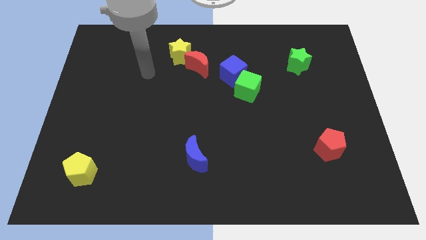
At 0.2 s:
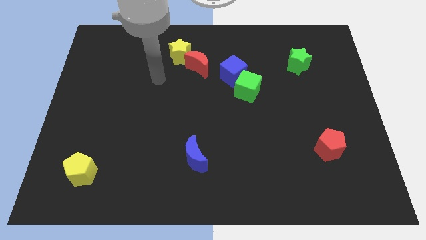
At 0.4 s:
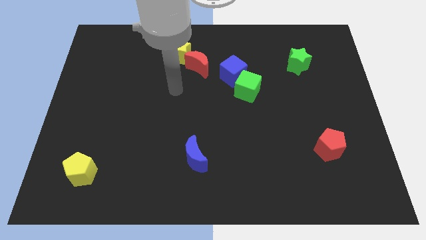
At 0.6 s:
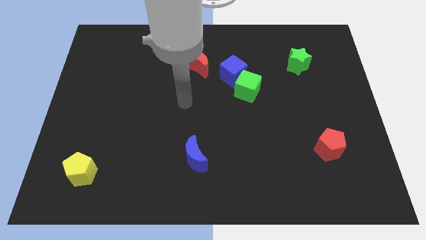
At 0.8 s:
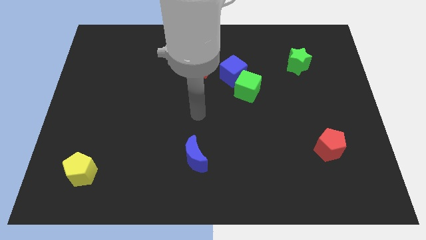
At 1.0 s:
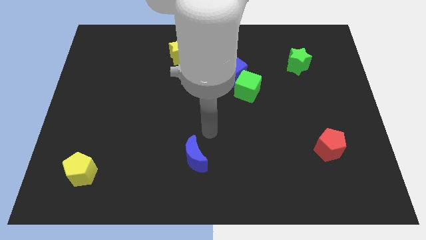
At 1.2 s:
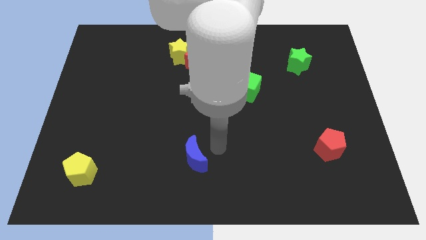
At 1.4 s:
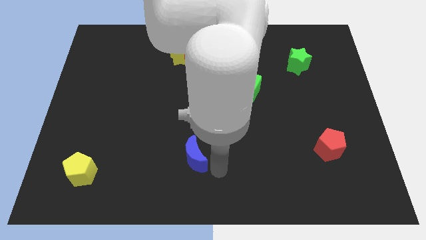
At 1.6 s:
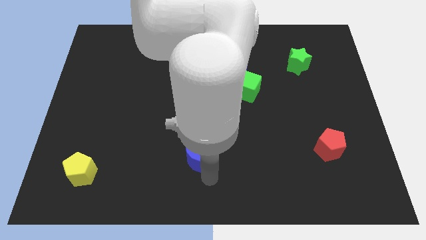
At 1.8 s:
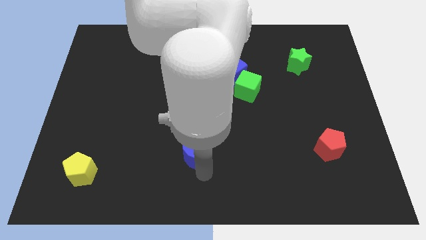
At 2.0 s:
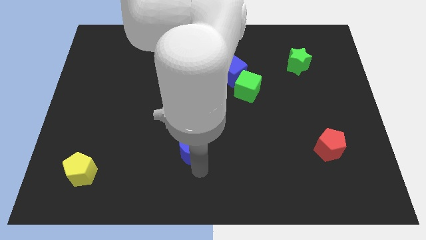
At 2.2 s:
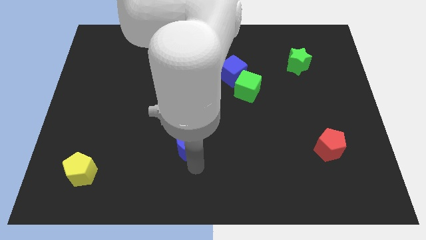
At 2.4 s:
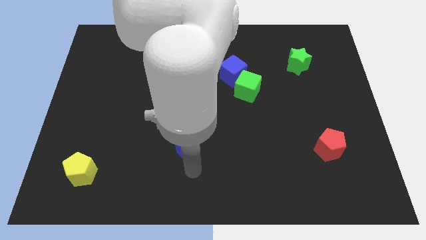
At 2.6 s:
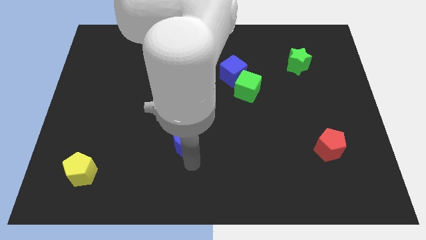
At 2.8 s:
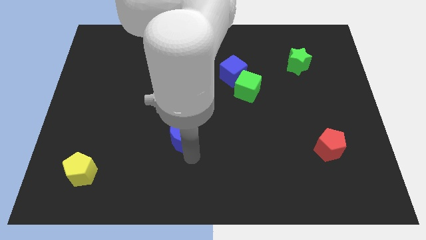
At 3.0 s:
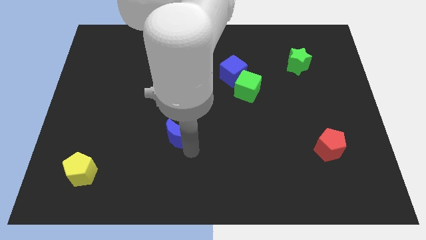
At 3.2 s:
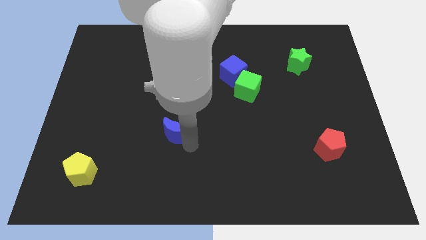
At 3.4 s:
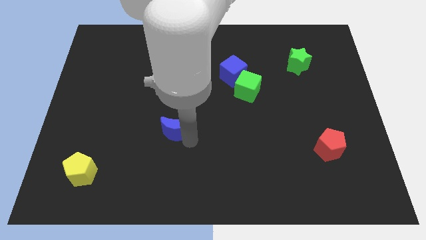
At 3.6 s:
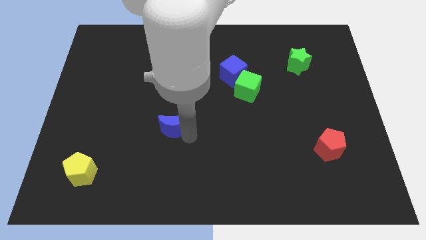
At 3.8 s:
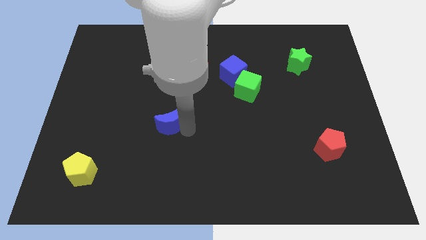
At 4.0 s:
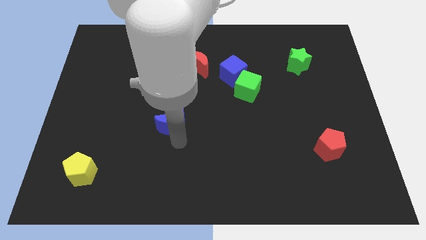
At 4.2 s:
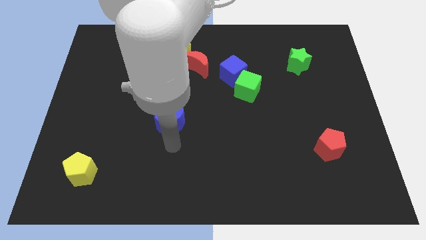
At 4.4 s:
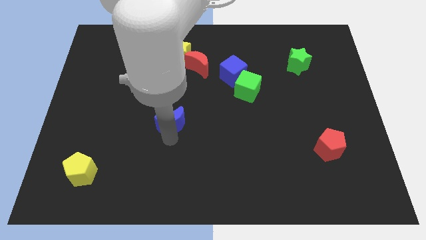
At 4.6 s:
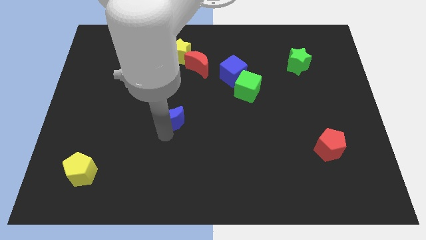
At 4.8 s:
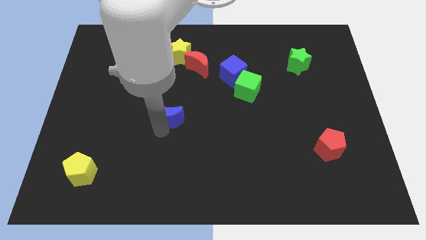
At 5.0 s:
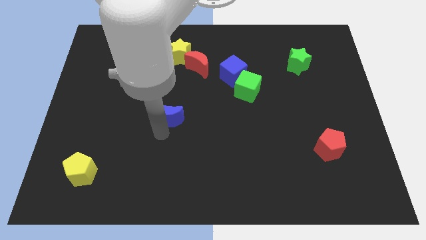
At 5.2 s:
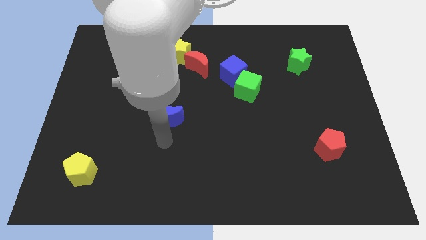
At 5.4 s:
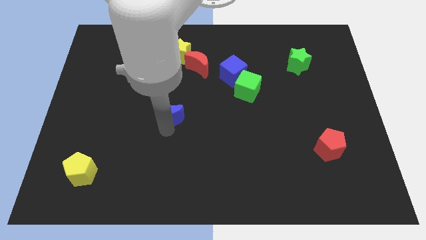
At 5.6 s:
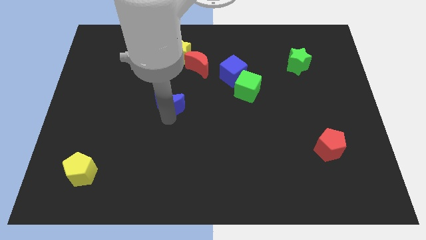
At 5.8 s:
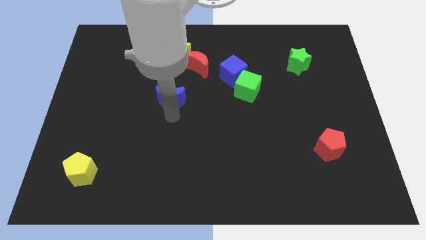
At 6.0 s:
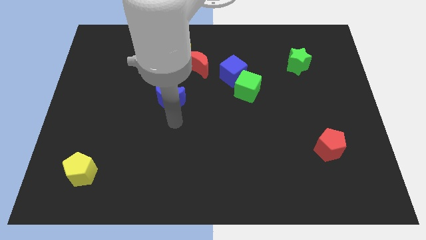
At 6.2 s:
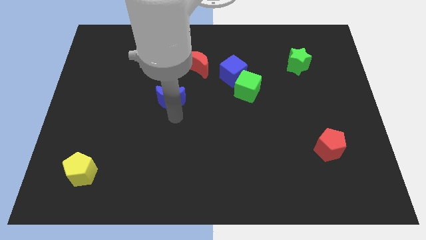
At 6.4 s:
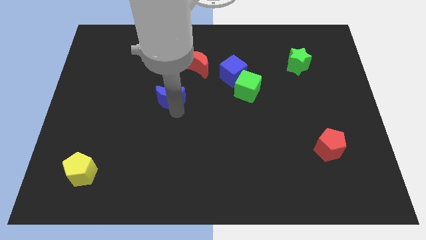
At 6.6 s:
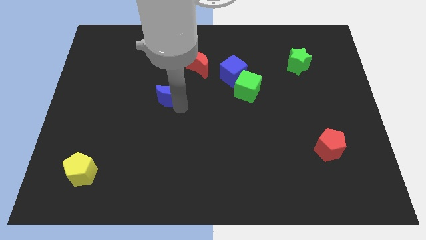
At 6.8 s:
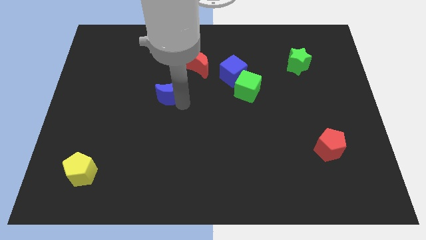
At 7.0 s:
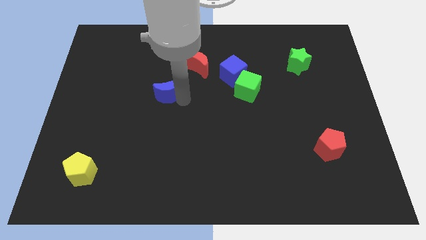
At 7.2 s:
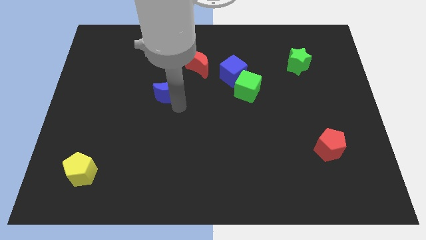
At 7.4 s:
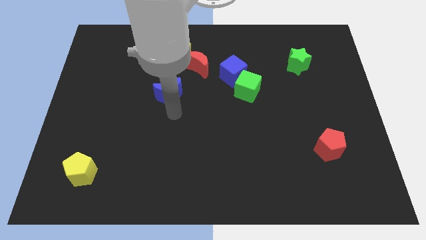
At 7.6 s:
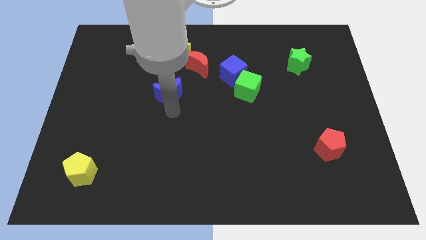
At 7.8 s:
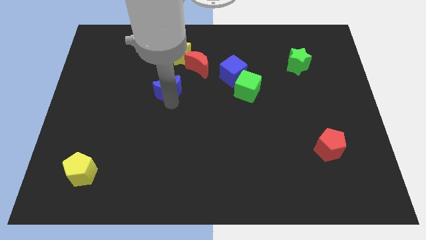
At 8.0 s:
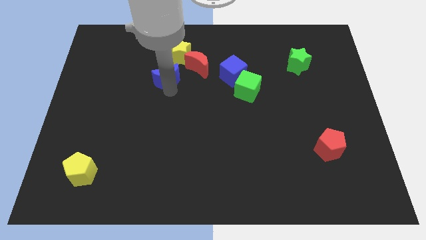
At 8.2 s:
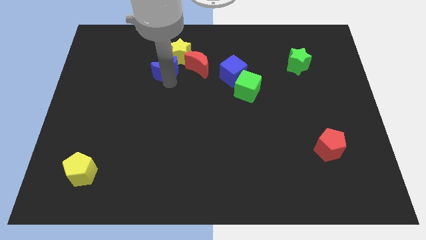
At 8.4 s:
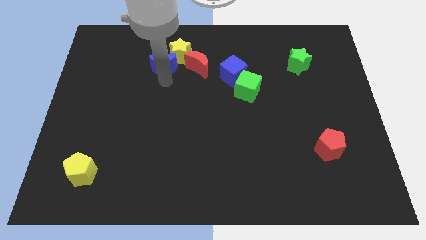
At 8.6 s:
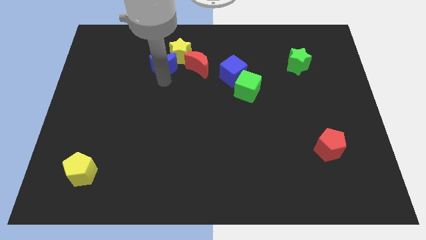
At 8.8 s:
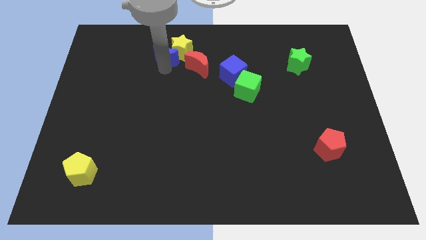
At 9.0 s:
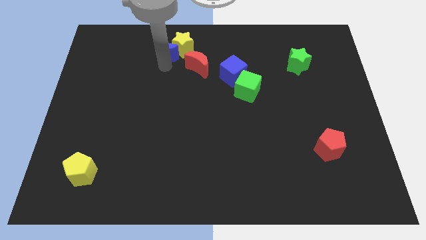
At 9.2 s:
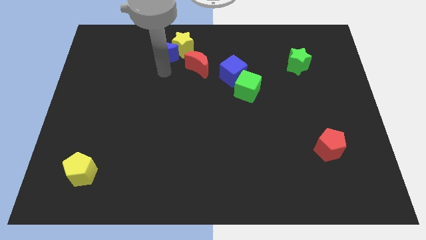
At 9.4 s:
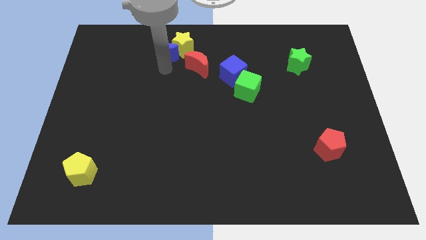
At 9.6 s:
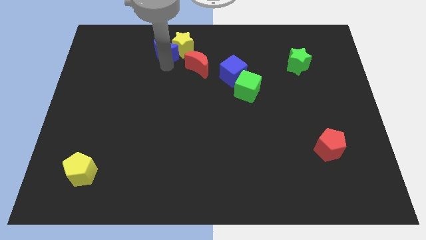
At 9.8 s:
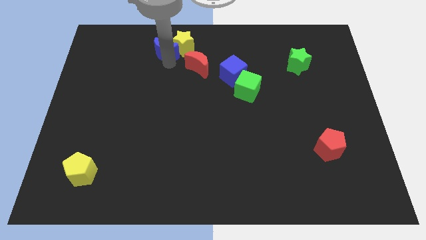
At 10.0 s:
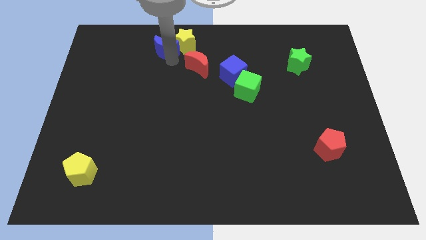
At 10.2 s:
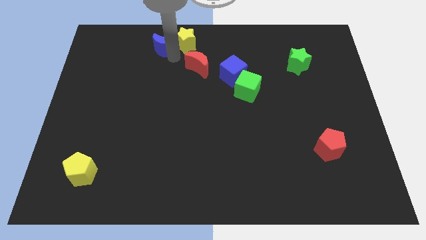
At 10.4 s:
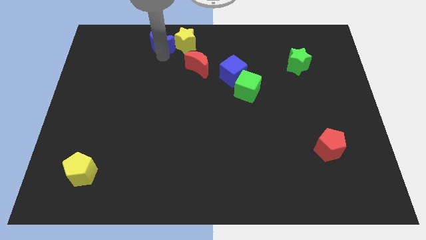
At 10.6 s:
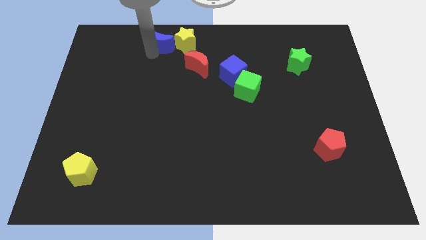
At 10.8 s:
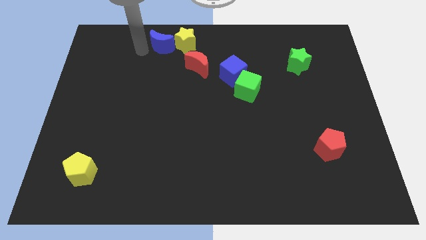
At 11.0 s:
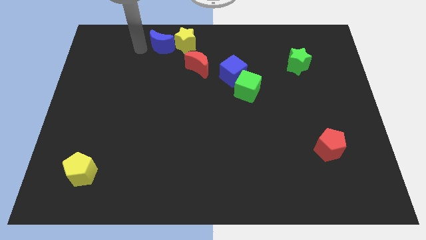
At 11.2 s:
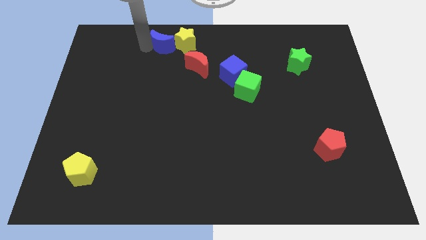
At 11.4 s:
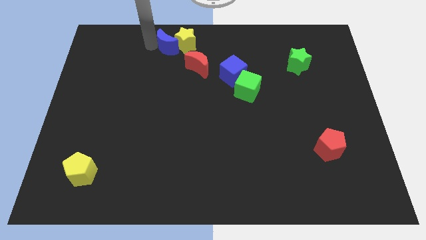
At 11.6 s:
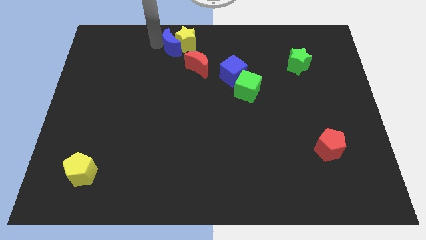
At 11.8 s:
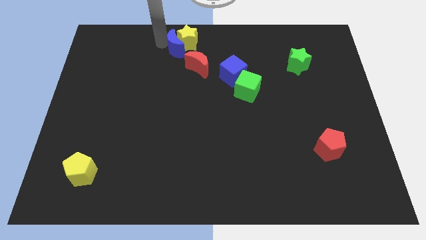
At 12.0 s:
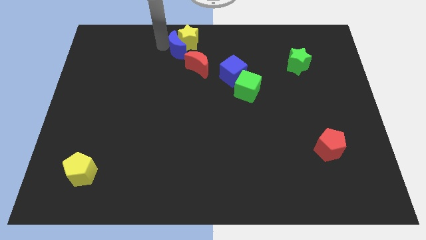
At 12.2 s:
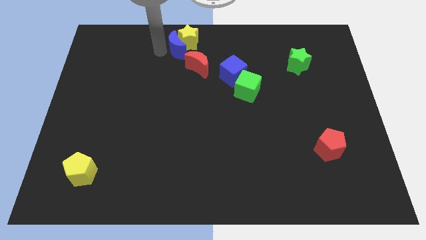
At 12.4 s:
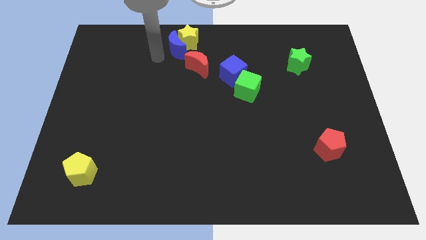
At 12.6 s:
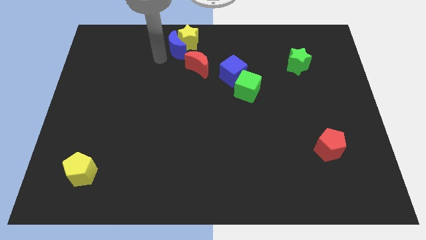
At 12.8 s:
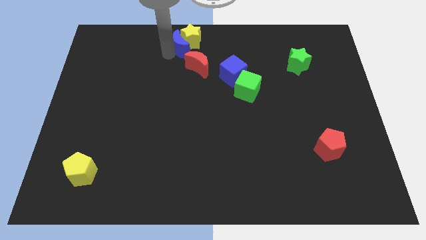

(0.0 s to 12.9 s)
move the blue moon to the top side
